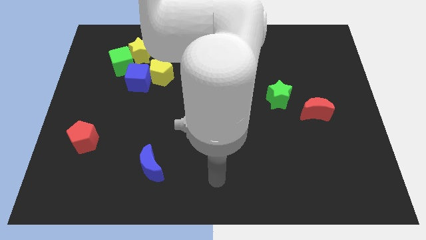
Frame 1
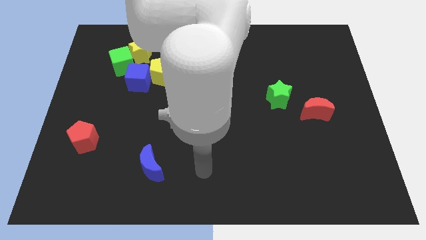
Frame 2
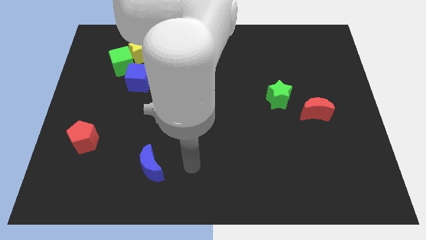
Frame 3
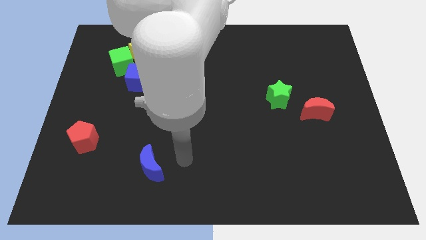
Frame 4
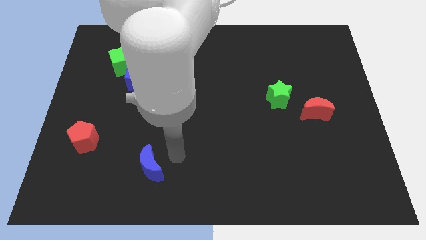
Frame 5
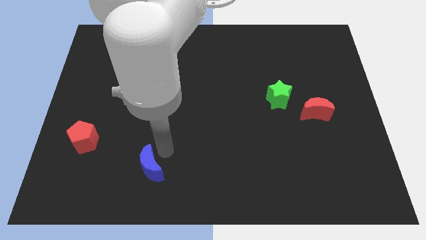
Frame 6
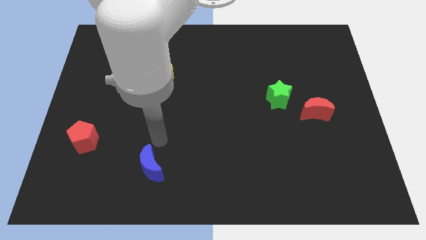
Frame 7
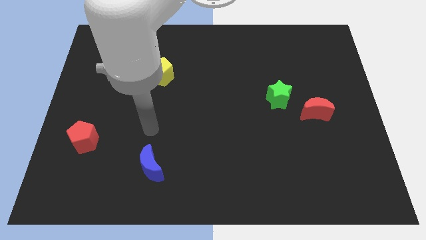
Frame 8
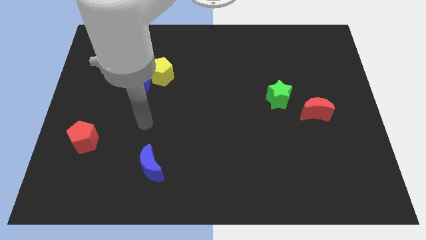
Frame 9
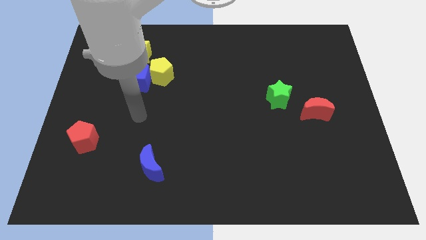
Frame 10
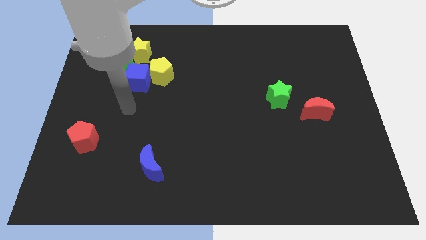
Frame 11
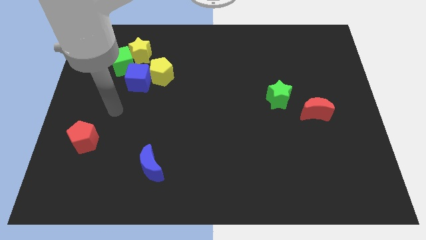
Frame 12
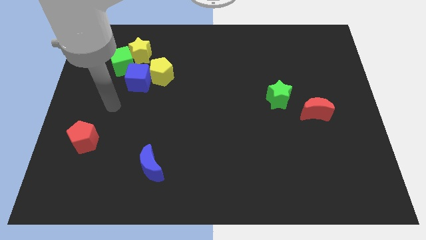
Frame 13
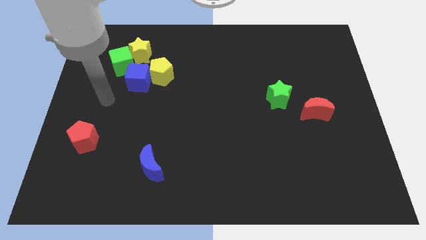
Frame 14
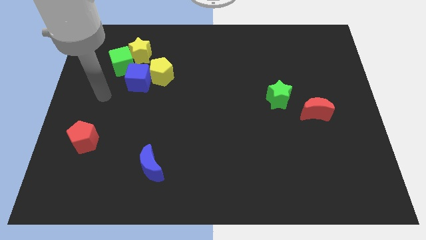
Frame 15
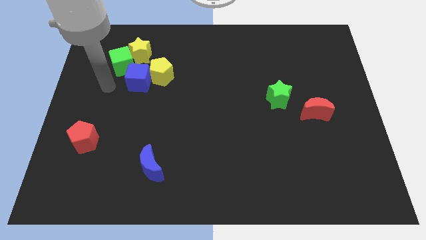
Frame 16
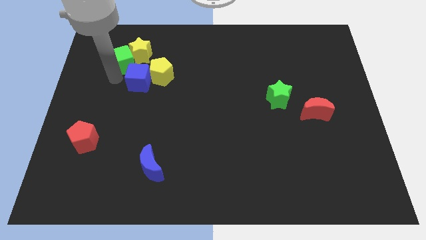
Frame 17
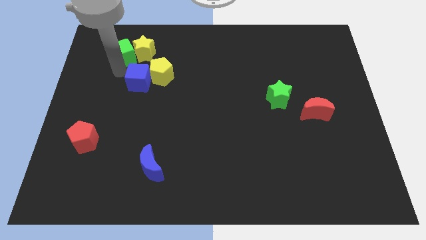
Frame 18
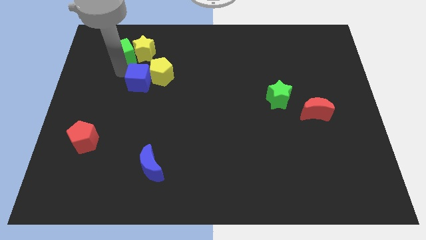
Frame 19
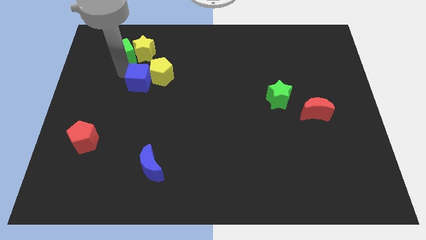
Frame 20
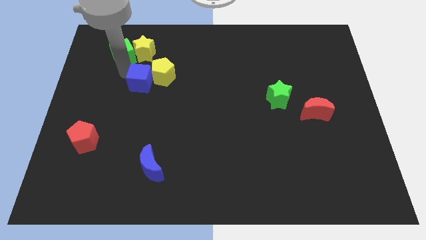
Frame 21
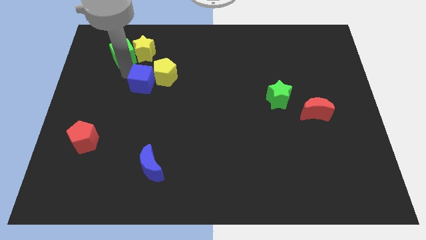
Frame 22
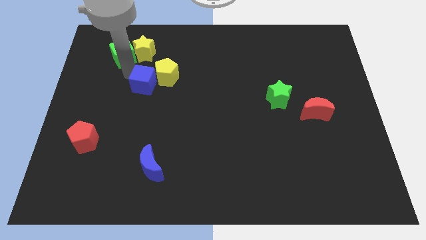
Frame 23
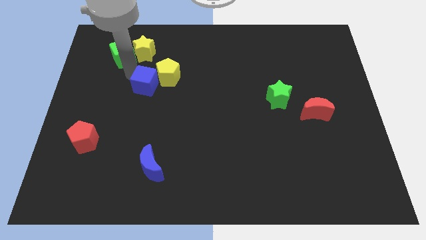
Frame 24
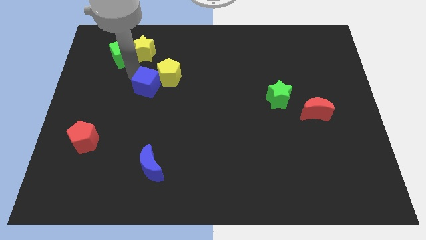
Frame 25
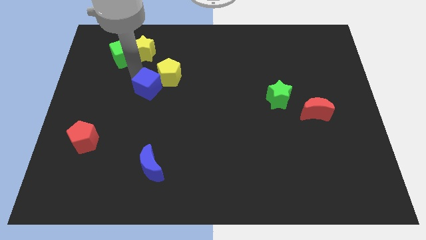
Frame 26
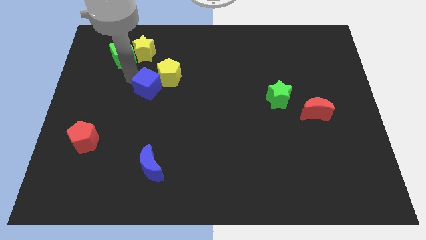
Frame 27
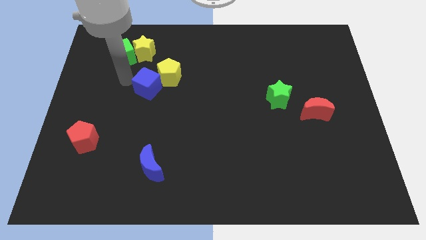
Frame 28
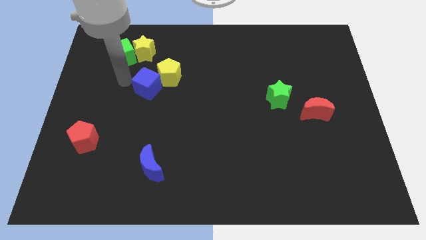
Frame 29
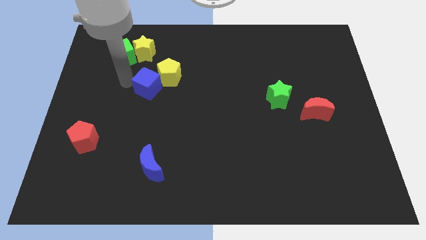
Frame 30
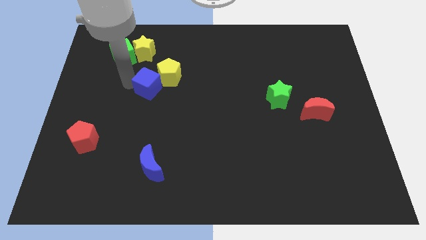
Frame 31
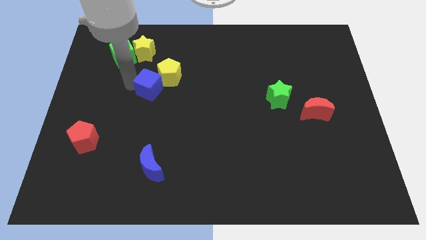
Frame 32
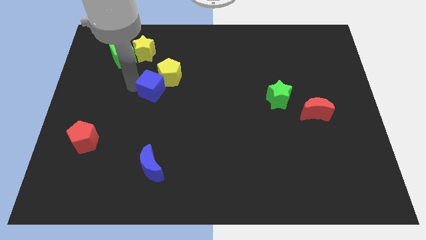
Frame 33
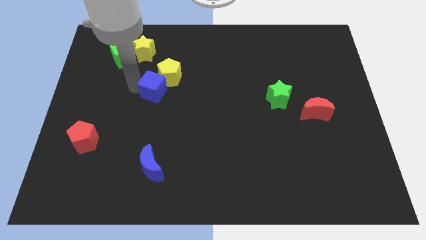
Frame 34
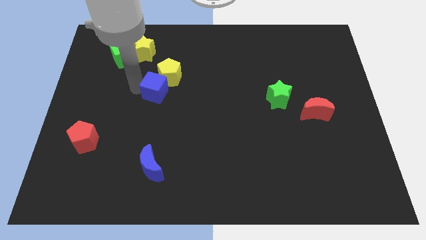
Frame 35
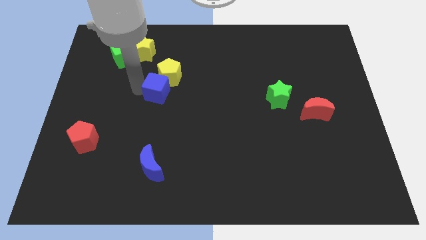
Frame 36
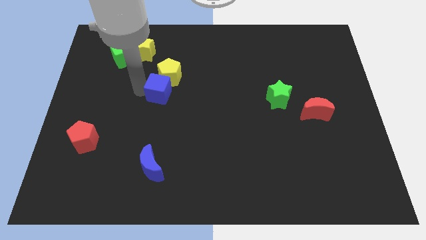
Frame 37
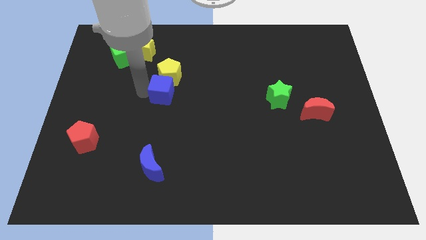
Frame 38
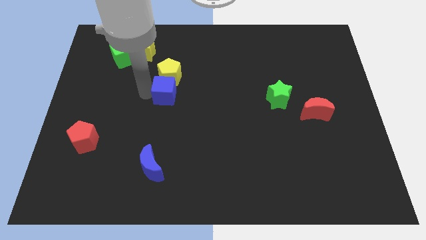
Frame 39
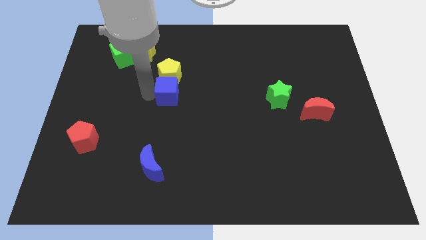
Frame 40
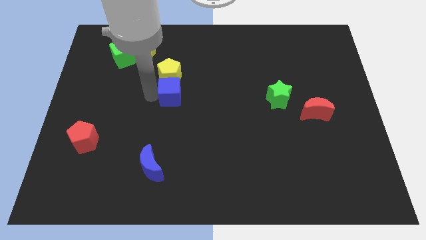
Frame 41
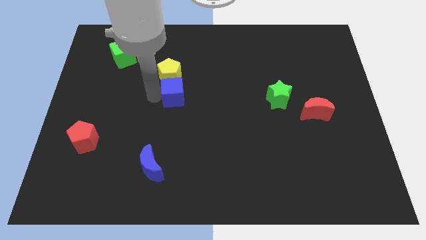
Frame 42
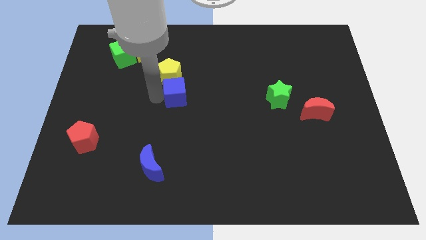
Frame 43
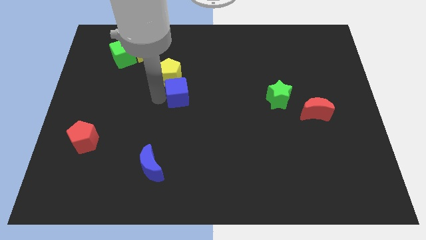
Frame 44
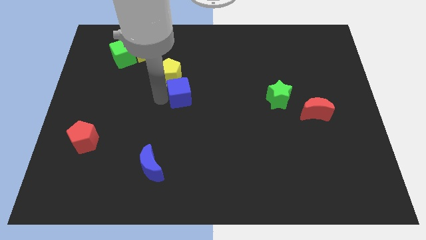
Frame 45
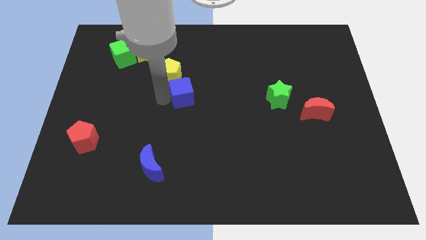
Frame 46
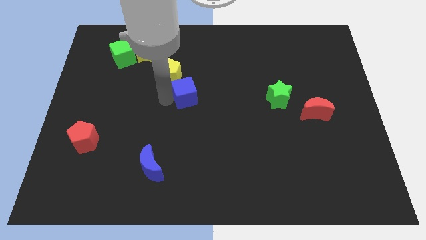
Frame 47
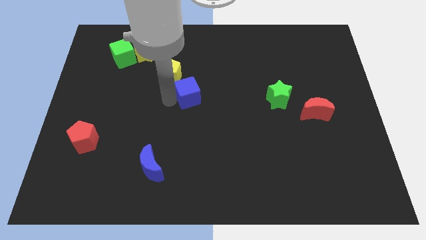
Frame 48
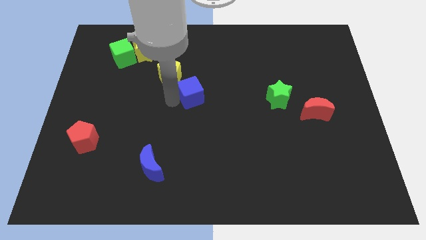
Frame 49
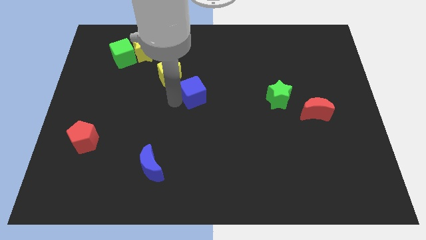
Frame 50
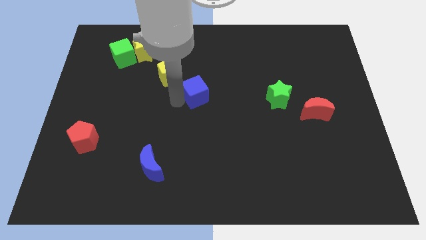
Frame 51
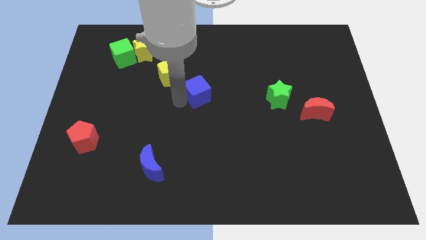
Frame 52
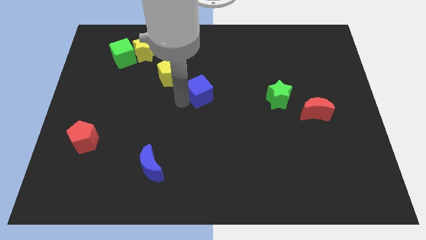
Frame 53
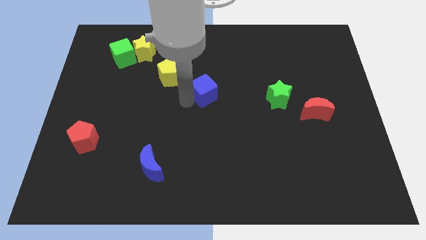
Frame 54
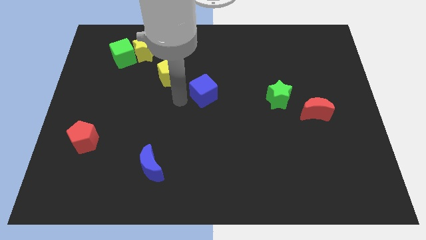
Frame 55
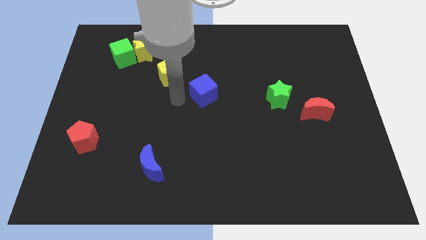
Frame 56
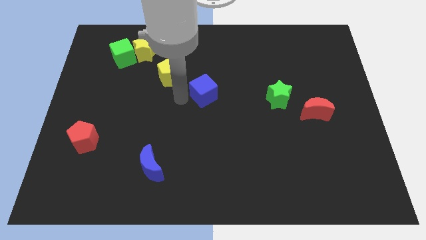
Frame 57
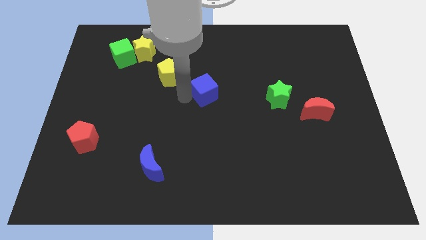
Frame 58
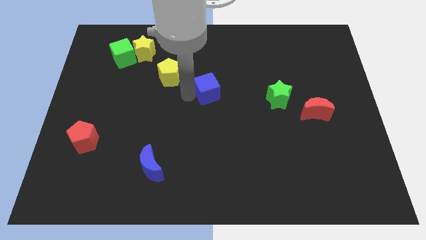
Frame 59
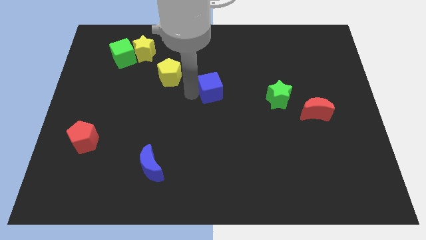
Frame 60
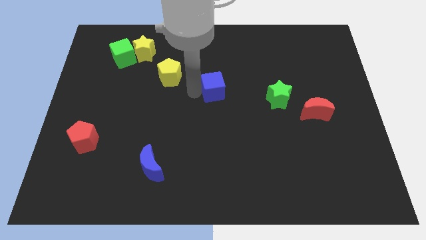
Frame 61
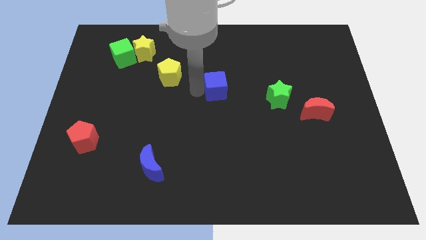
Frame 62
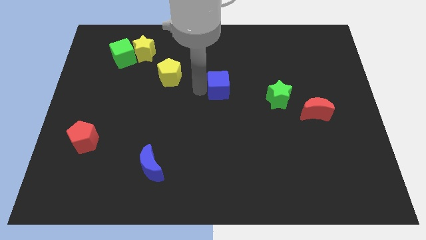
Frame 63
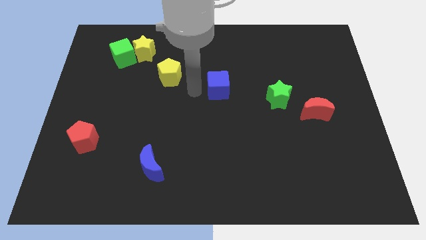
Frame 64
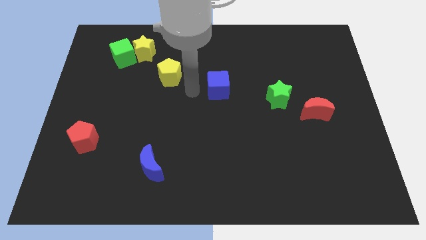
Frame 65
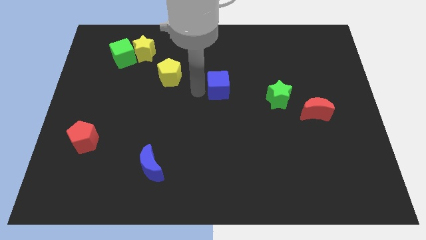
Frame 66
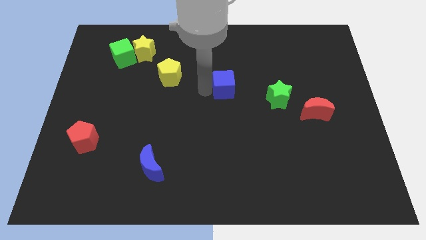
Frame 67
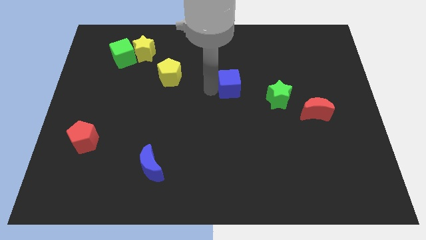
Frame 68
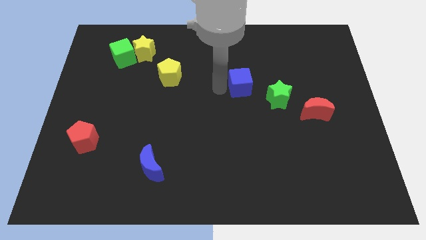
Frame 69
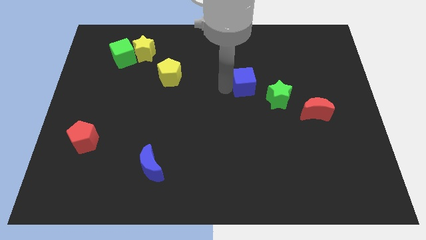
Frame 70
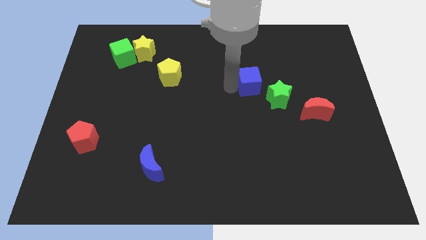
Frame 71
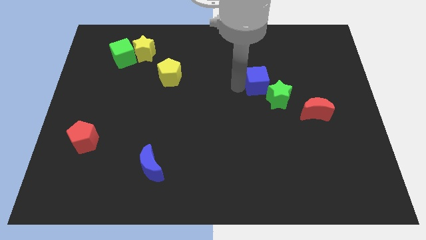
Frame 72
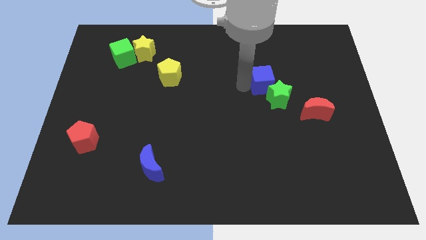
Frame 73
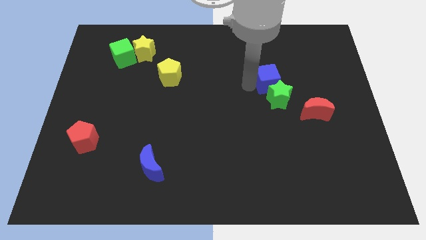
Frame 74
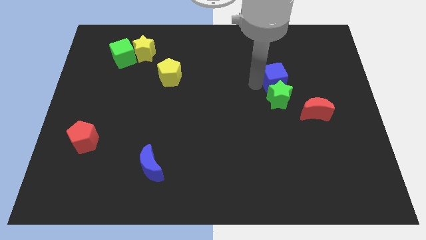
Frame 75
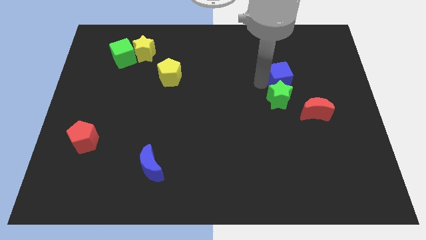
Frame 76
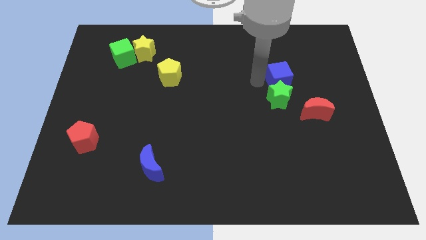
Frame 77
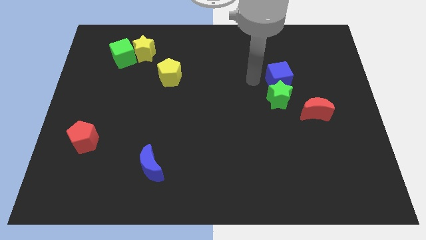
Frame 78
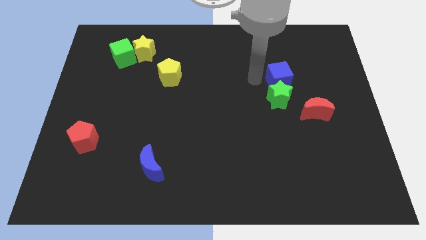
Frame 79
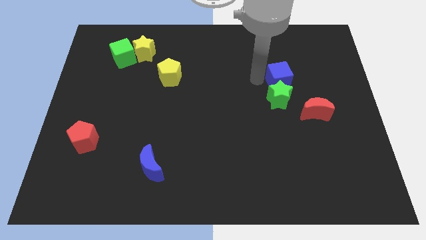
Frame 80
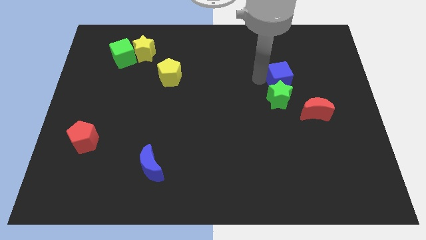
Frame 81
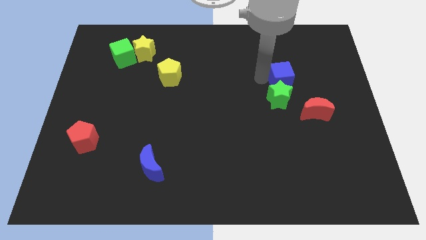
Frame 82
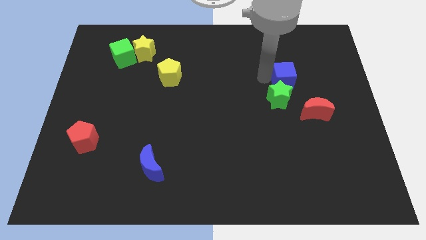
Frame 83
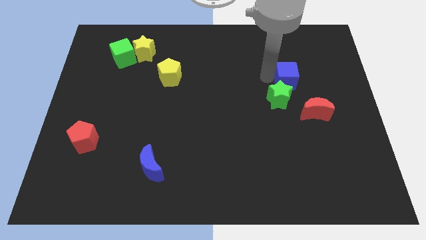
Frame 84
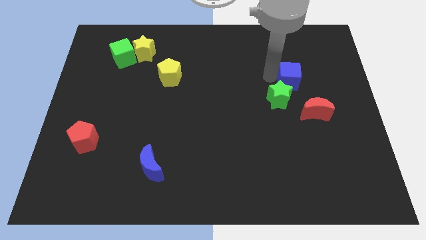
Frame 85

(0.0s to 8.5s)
slide the blue cube to the top of the red moon
